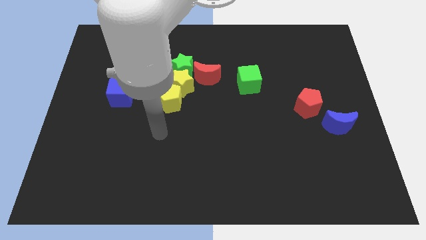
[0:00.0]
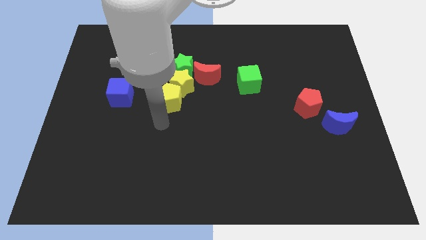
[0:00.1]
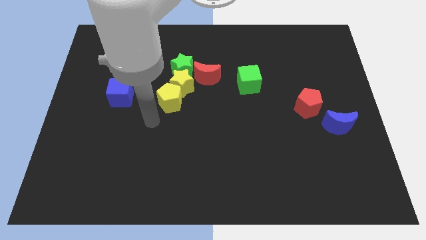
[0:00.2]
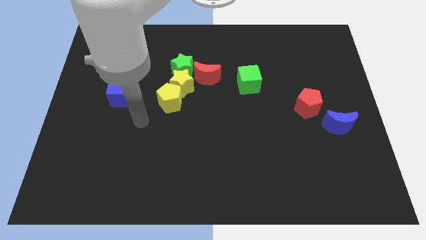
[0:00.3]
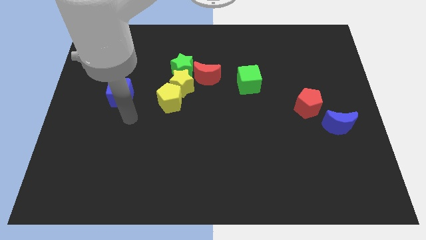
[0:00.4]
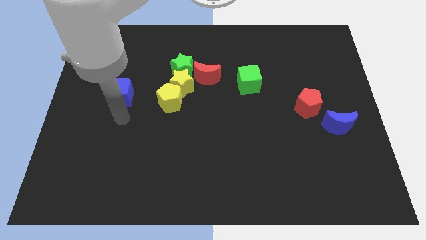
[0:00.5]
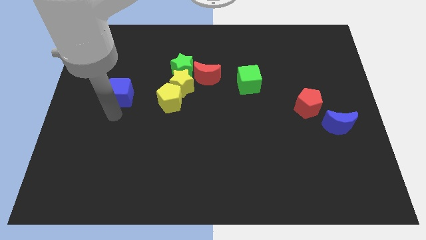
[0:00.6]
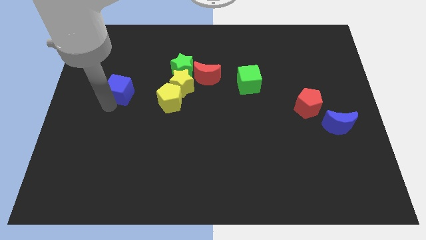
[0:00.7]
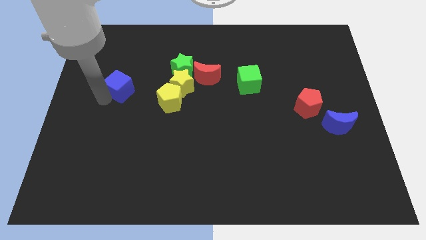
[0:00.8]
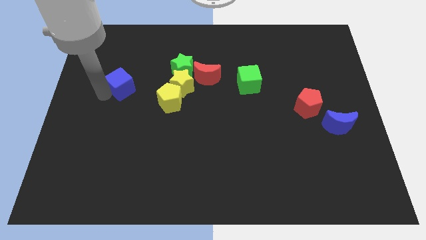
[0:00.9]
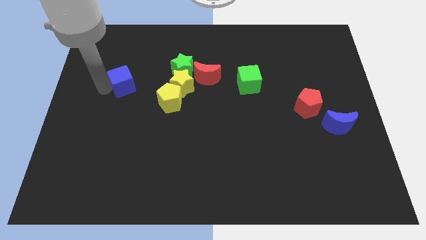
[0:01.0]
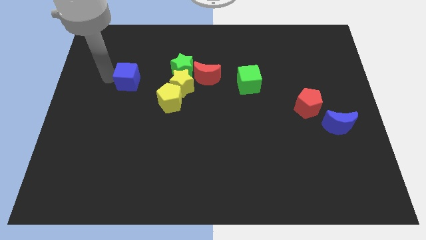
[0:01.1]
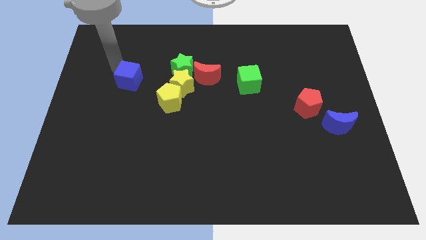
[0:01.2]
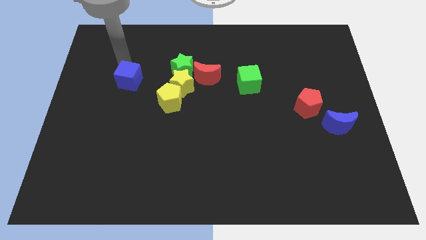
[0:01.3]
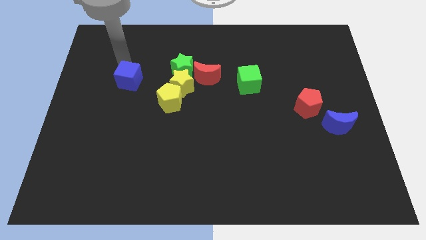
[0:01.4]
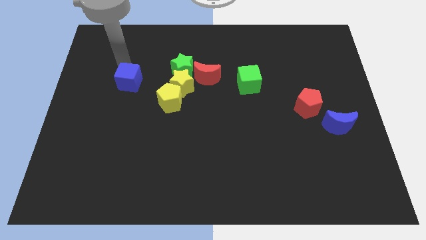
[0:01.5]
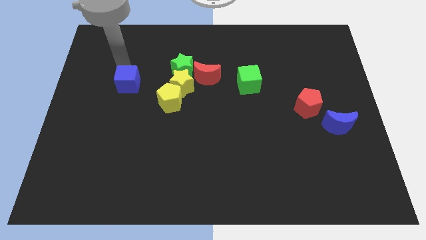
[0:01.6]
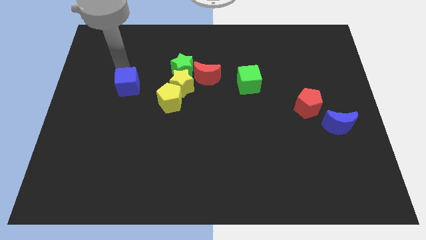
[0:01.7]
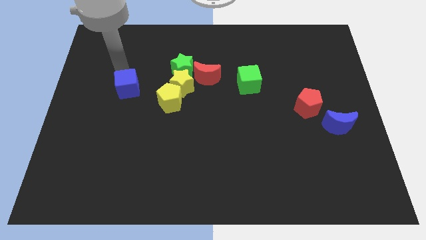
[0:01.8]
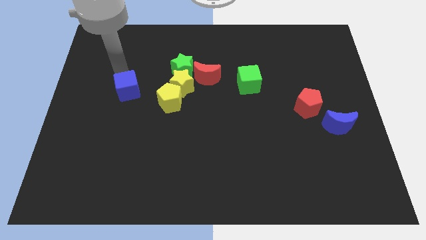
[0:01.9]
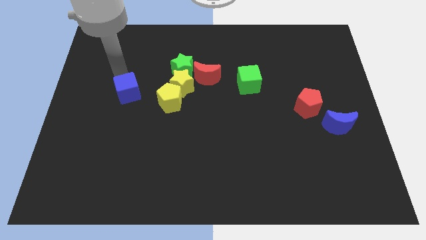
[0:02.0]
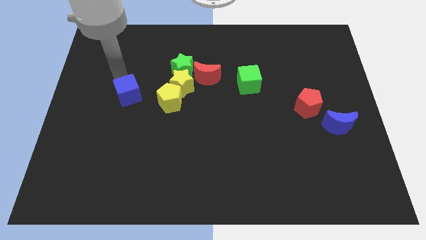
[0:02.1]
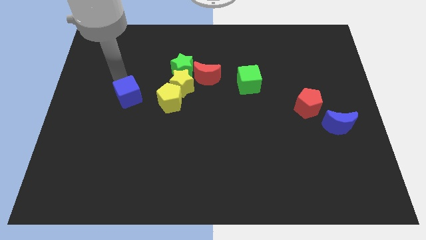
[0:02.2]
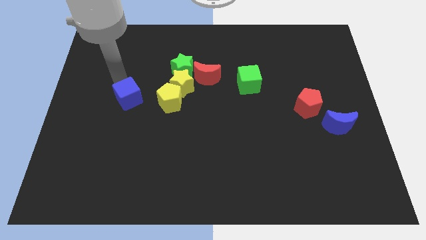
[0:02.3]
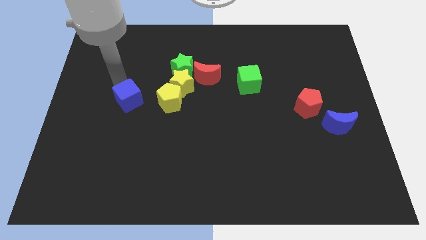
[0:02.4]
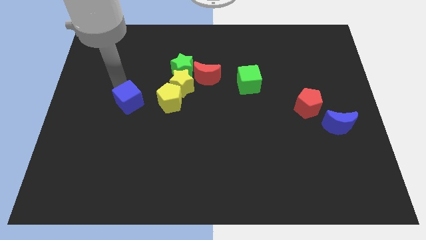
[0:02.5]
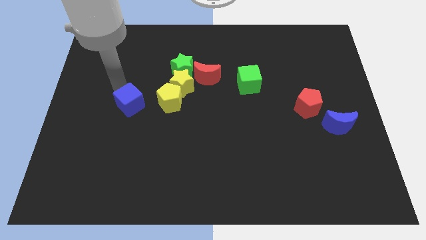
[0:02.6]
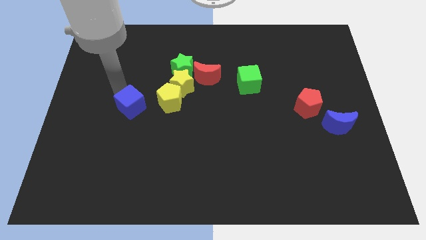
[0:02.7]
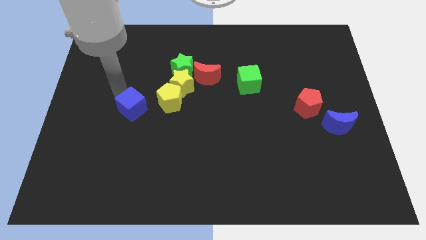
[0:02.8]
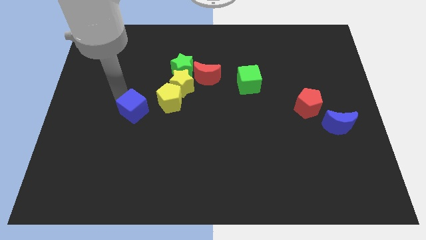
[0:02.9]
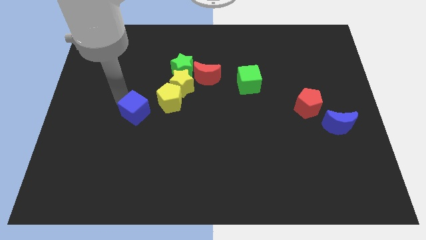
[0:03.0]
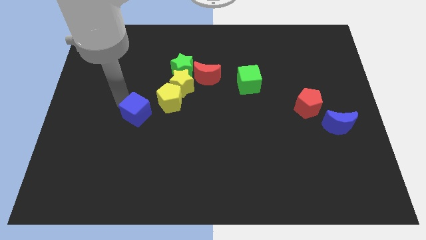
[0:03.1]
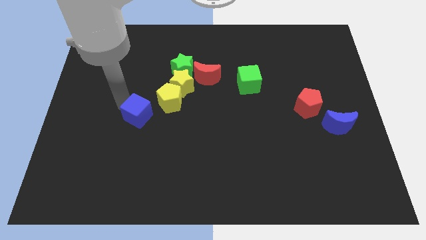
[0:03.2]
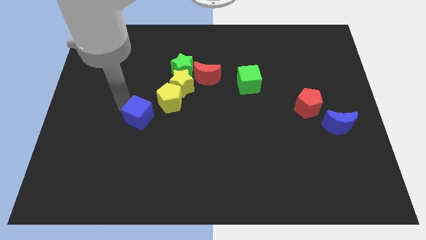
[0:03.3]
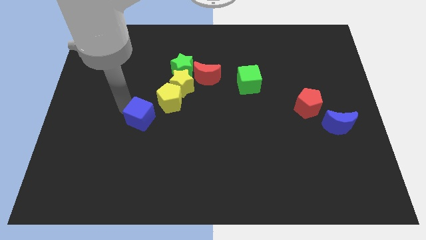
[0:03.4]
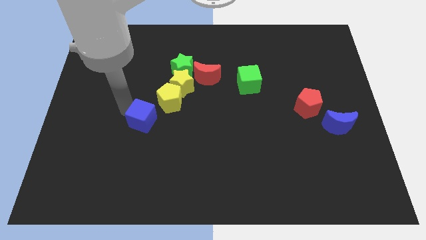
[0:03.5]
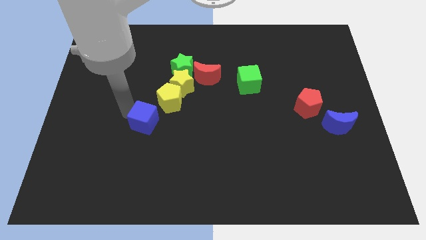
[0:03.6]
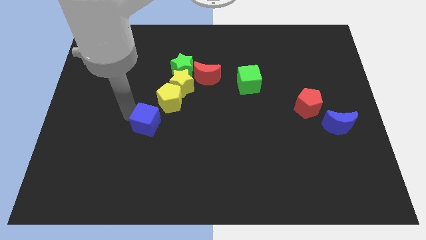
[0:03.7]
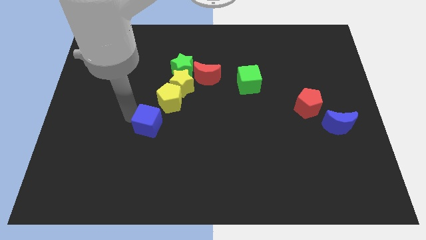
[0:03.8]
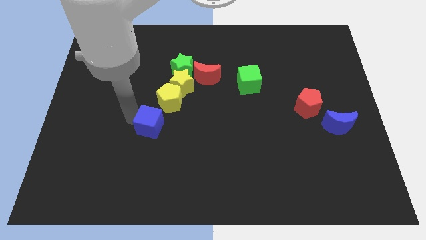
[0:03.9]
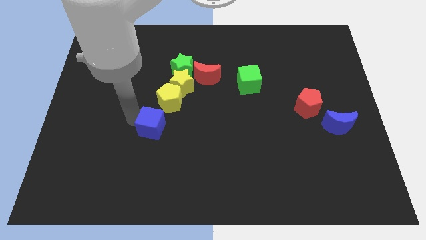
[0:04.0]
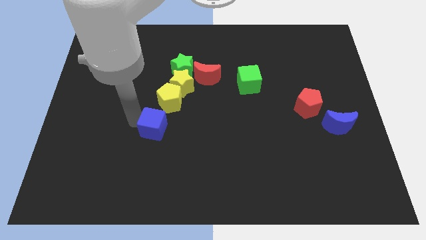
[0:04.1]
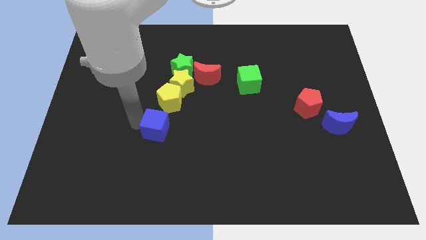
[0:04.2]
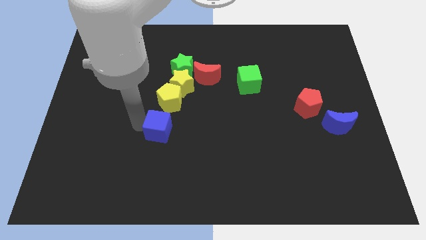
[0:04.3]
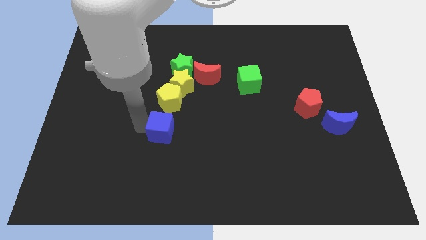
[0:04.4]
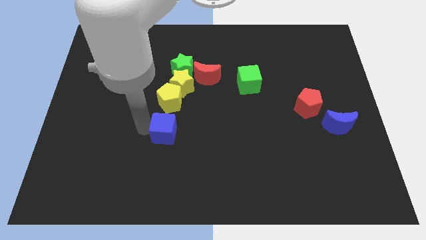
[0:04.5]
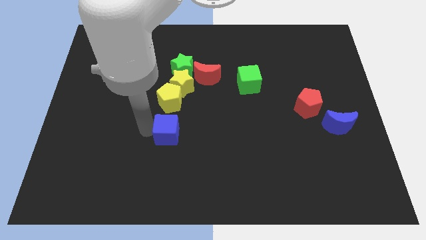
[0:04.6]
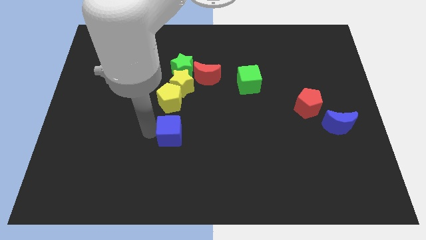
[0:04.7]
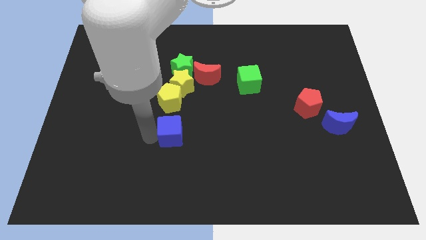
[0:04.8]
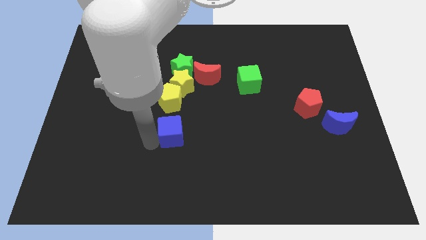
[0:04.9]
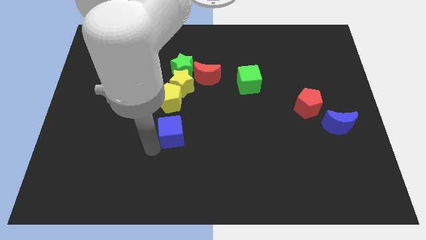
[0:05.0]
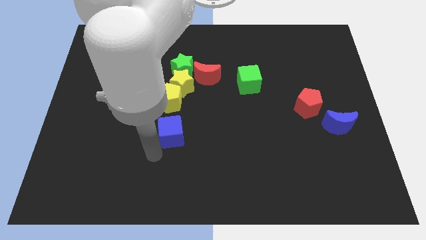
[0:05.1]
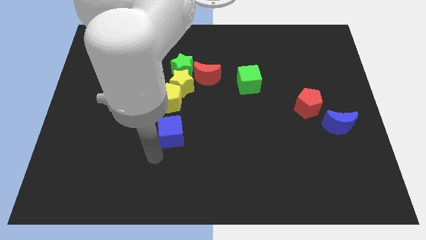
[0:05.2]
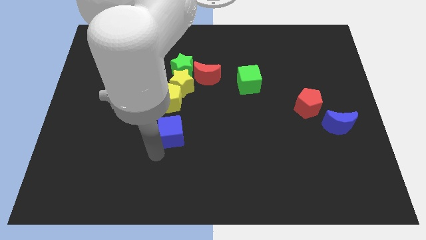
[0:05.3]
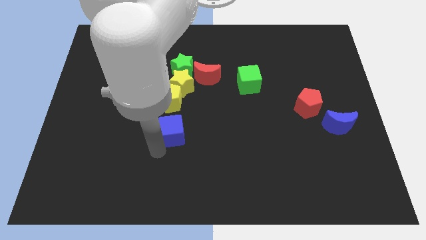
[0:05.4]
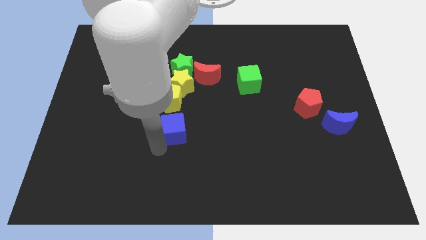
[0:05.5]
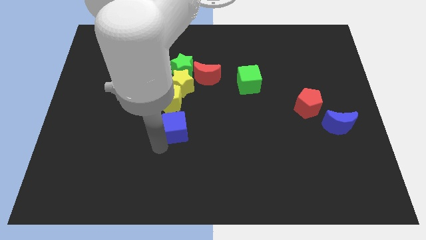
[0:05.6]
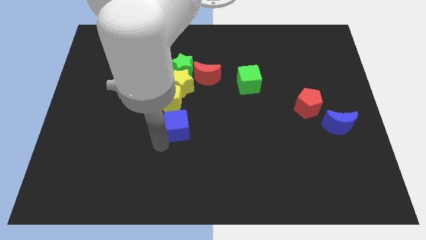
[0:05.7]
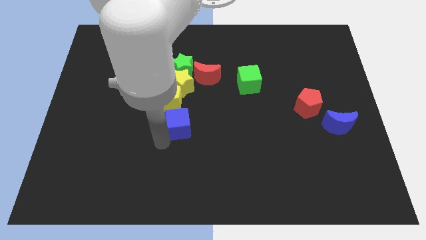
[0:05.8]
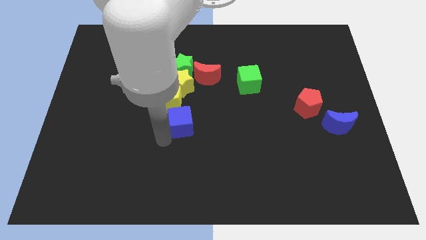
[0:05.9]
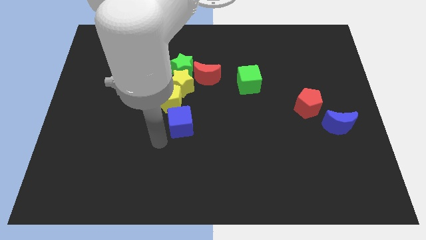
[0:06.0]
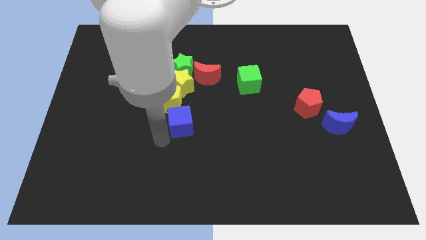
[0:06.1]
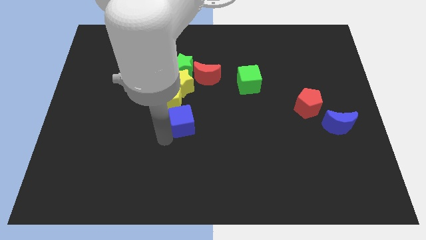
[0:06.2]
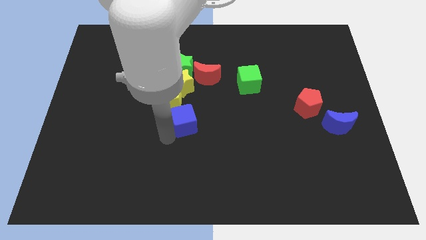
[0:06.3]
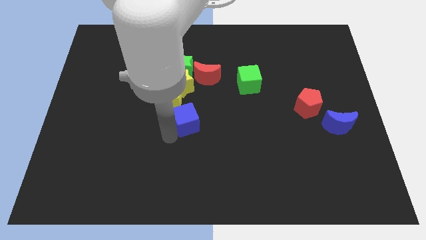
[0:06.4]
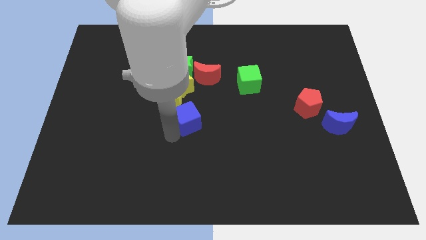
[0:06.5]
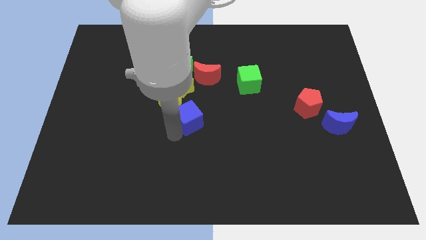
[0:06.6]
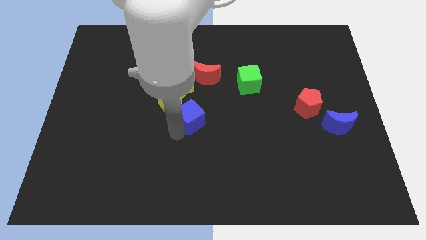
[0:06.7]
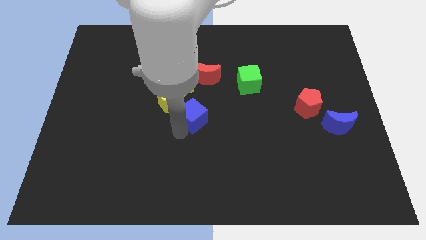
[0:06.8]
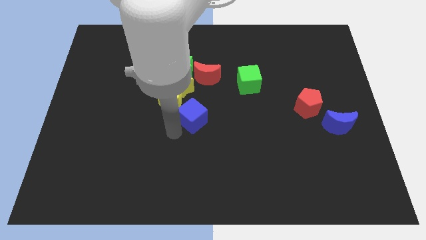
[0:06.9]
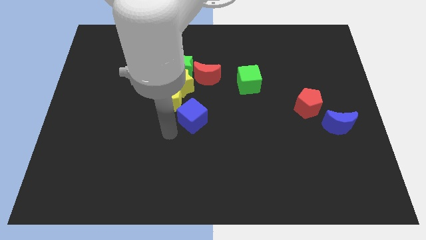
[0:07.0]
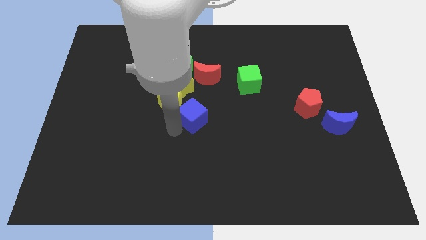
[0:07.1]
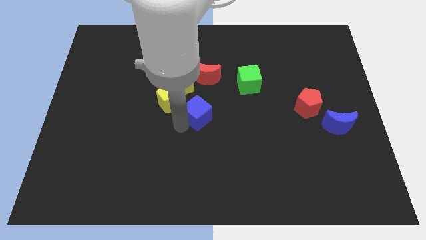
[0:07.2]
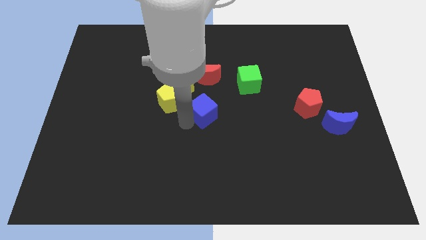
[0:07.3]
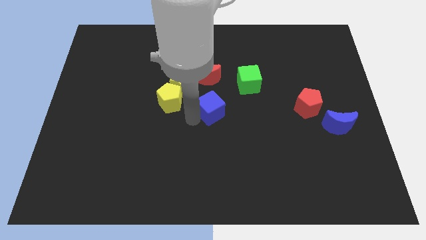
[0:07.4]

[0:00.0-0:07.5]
push the blue cube right
